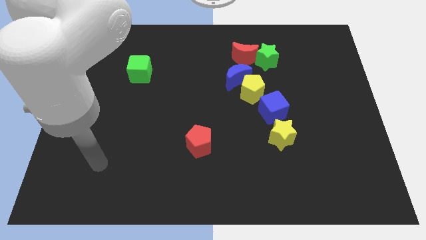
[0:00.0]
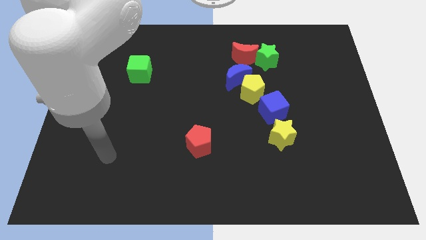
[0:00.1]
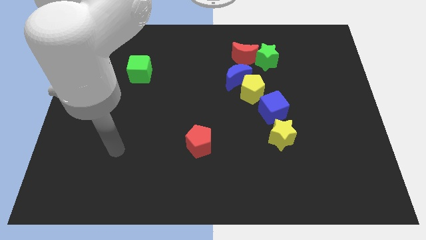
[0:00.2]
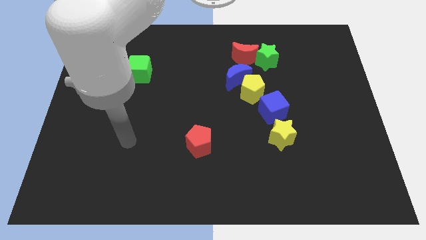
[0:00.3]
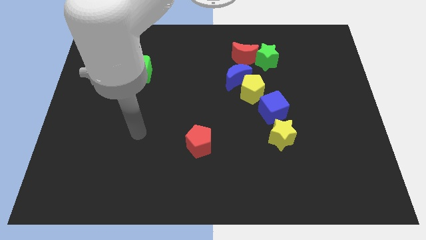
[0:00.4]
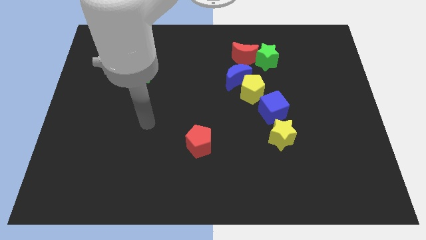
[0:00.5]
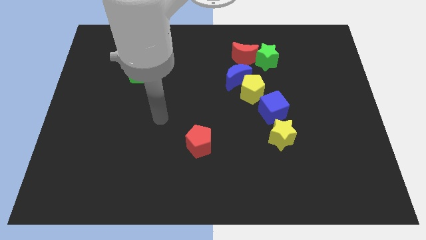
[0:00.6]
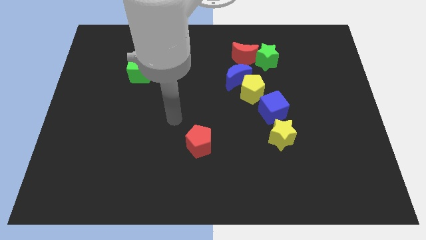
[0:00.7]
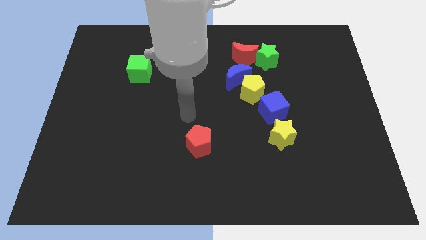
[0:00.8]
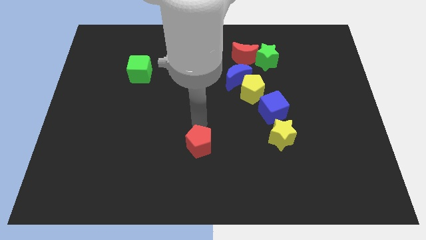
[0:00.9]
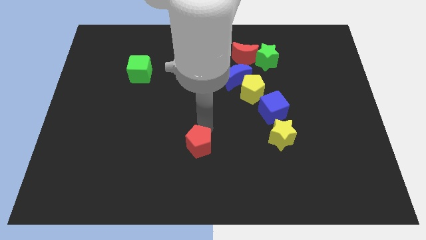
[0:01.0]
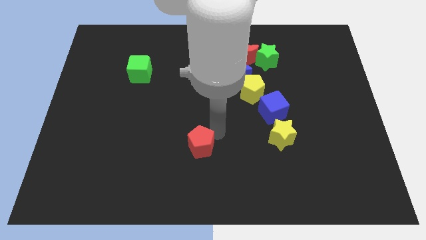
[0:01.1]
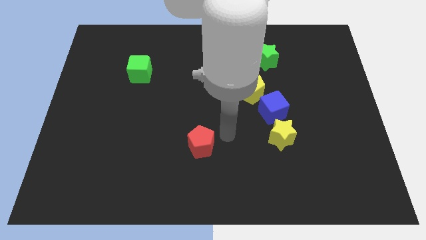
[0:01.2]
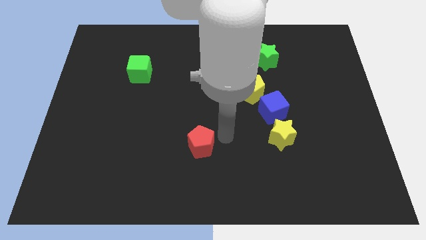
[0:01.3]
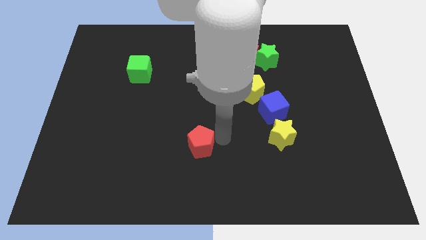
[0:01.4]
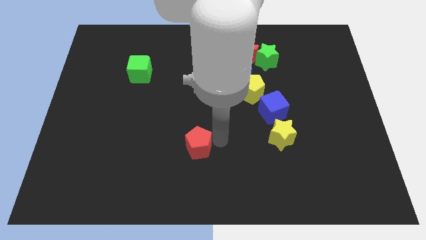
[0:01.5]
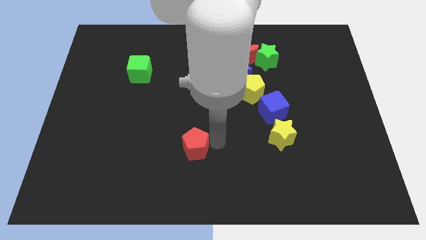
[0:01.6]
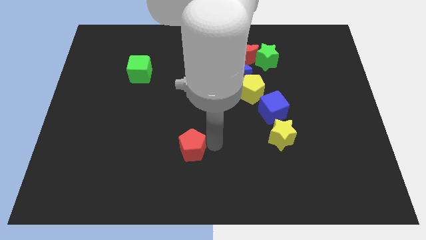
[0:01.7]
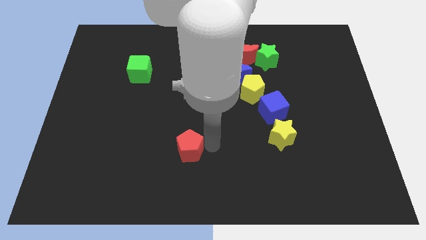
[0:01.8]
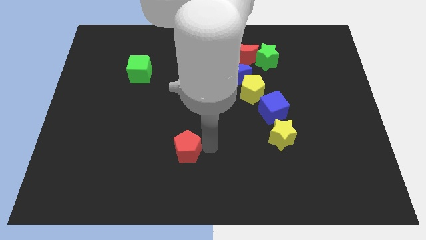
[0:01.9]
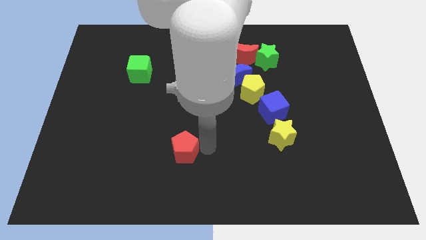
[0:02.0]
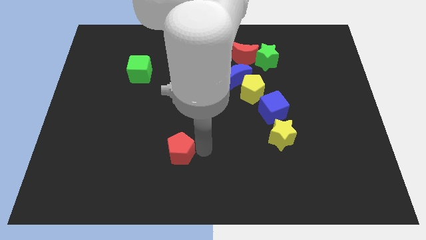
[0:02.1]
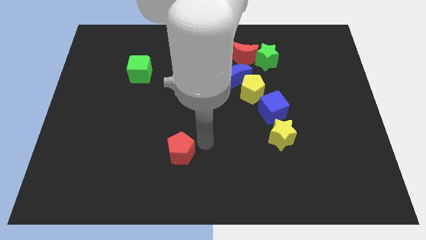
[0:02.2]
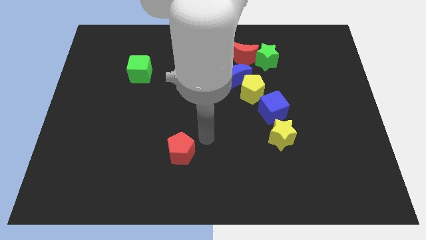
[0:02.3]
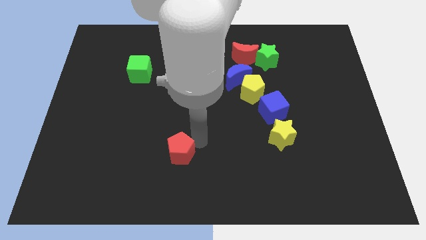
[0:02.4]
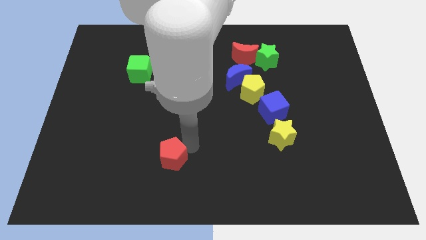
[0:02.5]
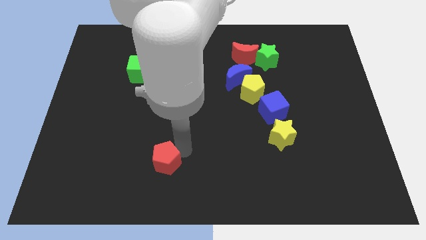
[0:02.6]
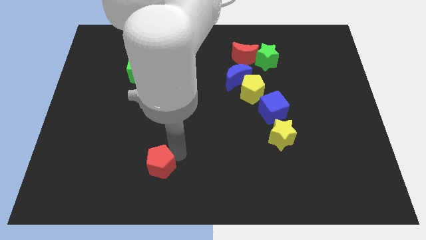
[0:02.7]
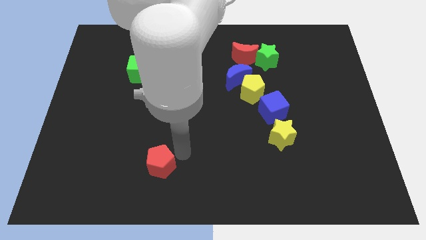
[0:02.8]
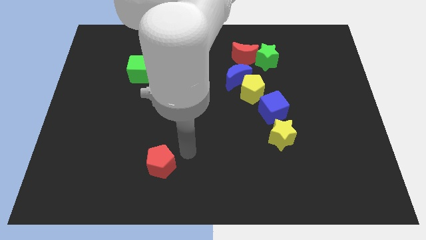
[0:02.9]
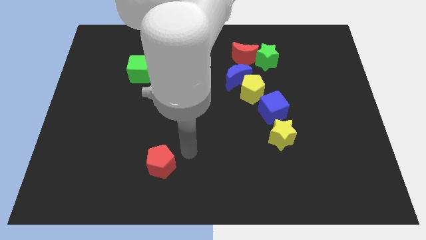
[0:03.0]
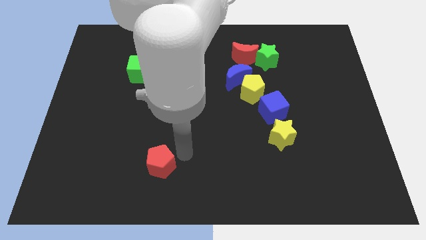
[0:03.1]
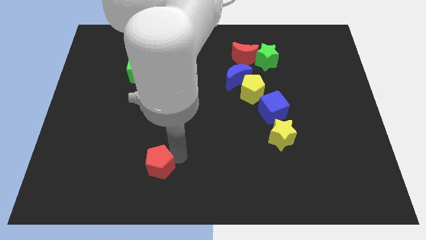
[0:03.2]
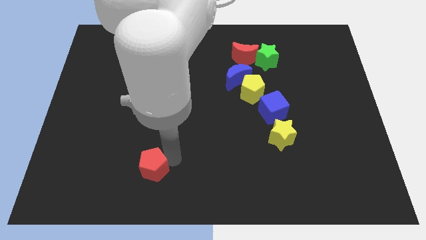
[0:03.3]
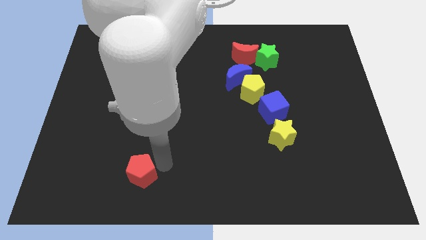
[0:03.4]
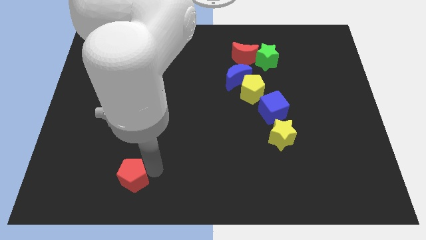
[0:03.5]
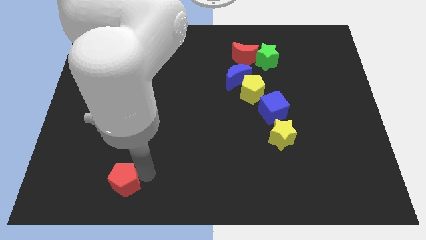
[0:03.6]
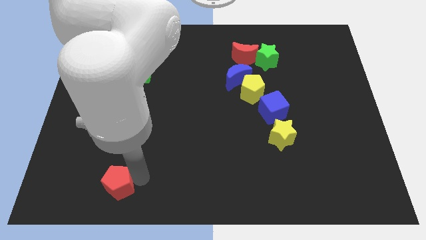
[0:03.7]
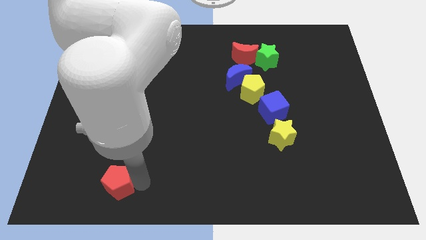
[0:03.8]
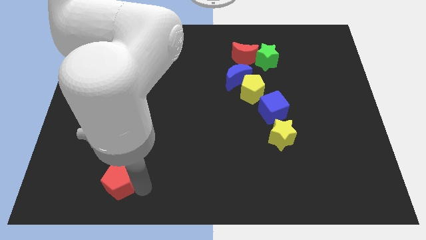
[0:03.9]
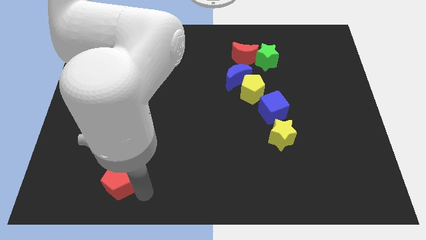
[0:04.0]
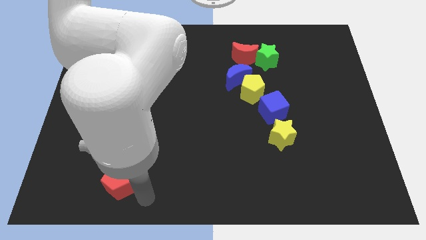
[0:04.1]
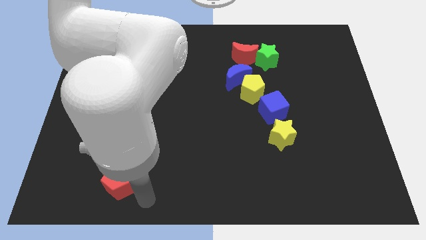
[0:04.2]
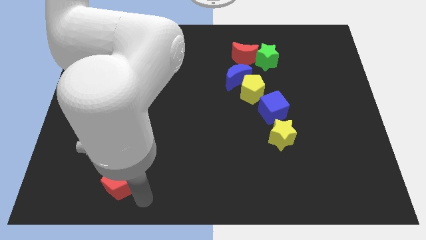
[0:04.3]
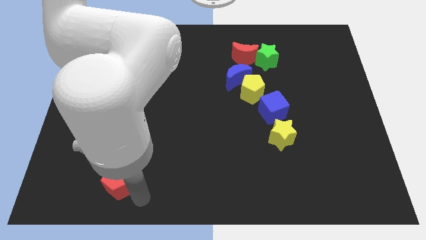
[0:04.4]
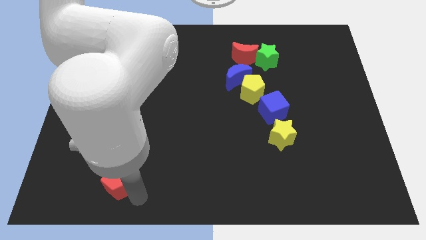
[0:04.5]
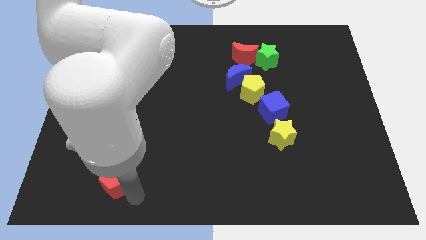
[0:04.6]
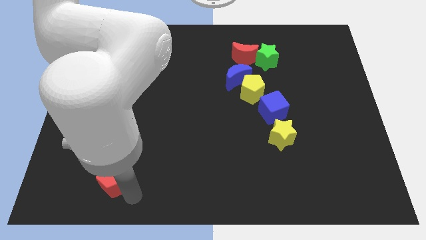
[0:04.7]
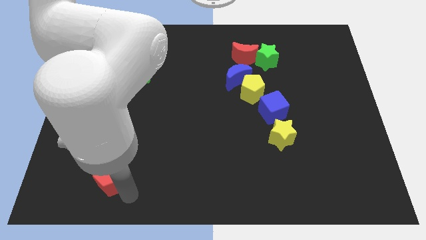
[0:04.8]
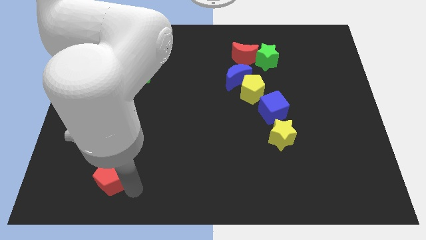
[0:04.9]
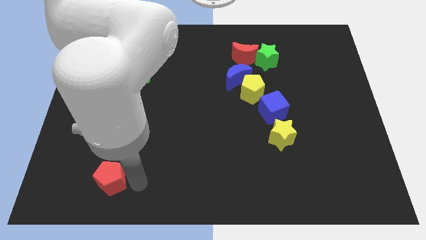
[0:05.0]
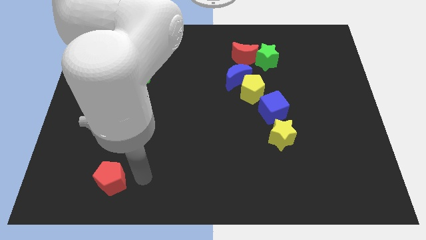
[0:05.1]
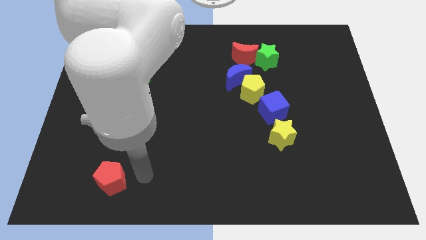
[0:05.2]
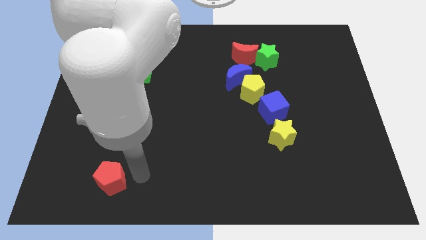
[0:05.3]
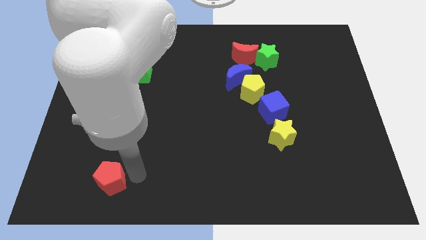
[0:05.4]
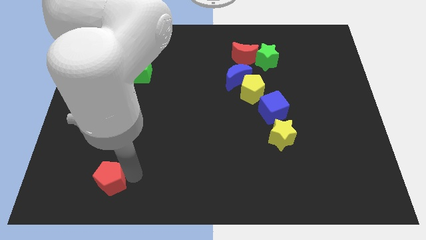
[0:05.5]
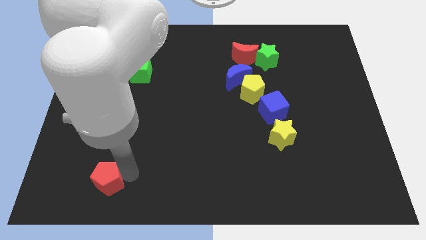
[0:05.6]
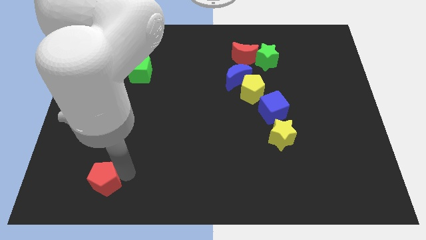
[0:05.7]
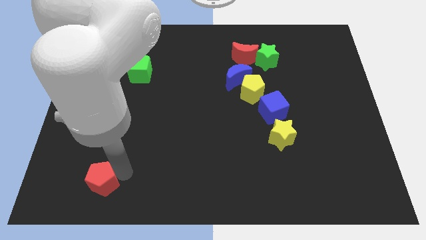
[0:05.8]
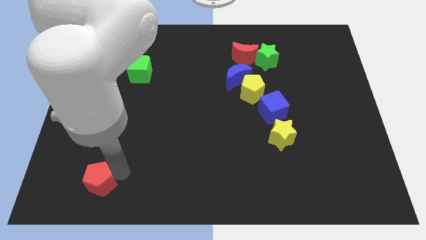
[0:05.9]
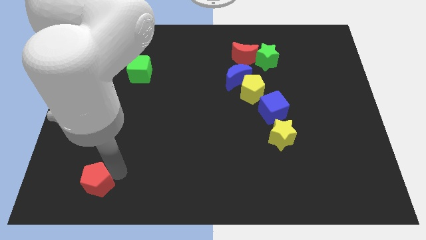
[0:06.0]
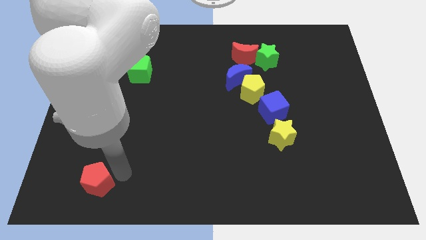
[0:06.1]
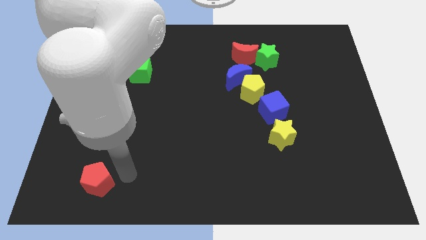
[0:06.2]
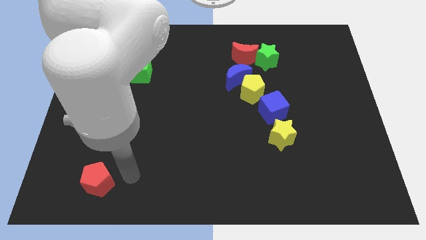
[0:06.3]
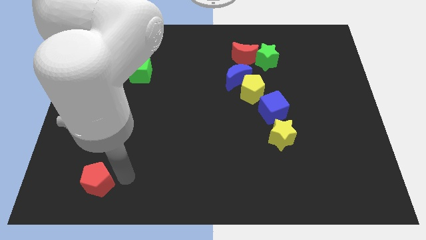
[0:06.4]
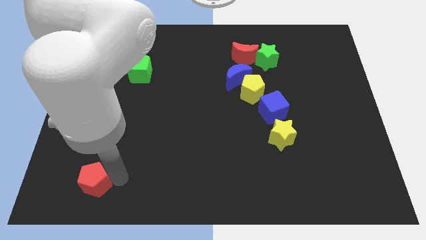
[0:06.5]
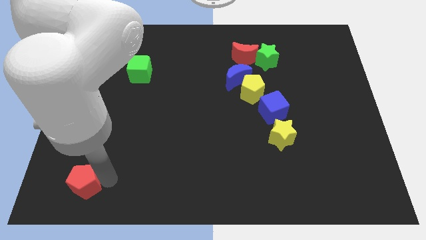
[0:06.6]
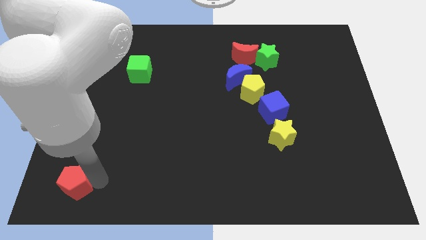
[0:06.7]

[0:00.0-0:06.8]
push the red pentagon to the lower left corner
